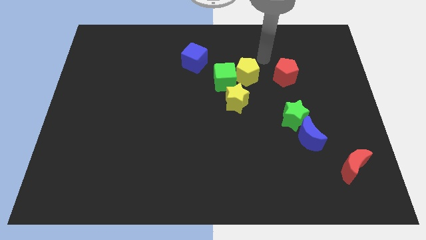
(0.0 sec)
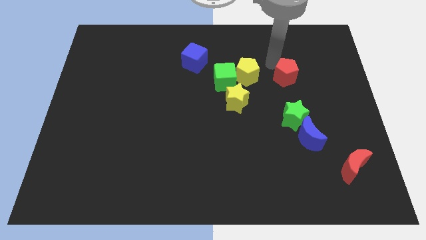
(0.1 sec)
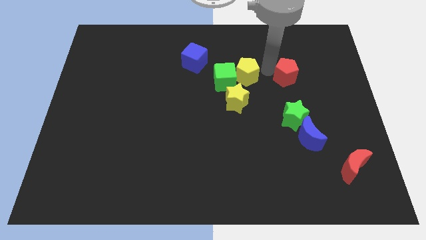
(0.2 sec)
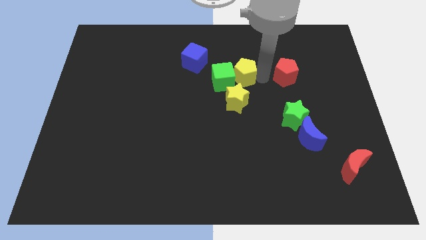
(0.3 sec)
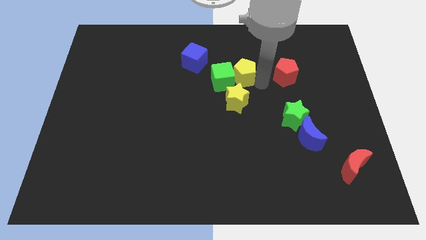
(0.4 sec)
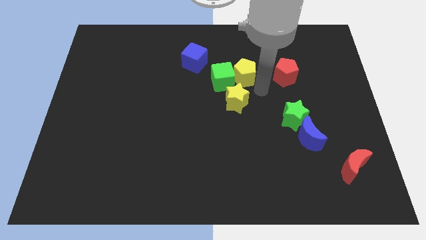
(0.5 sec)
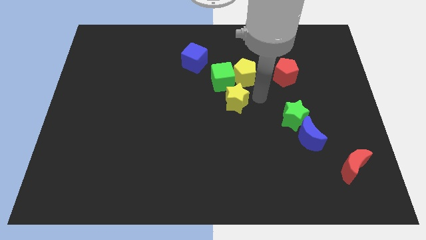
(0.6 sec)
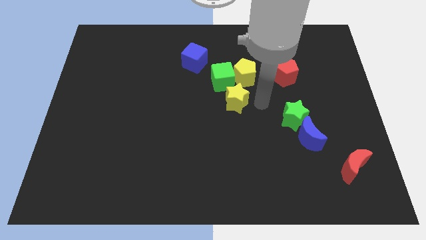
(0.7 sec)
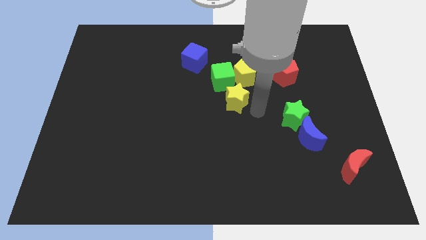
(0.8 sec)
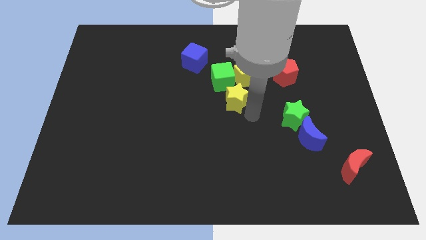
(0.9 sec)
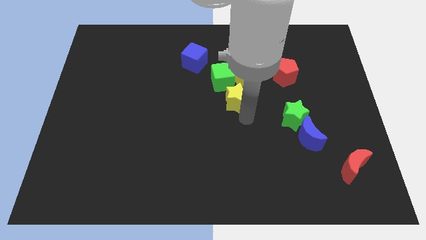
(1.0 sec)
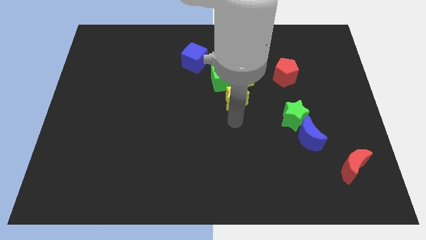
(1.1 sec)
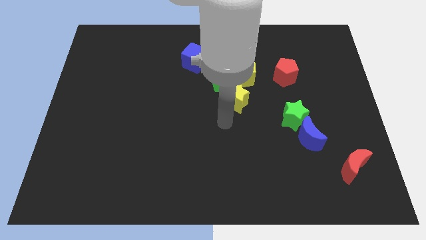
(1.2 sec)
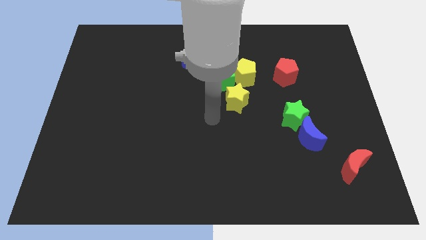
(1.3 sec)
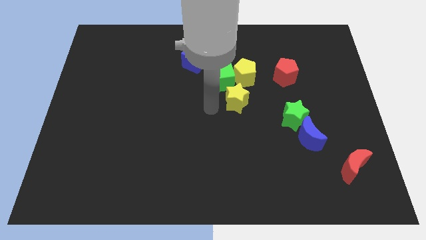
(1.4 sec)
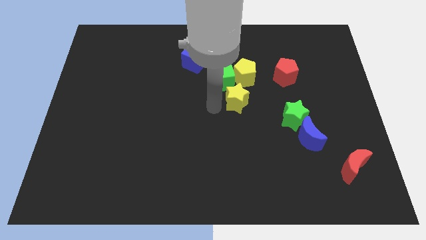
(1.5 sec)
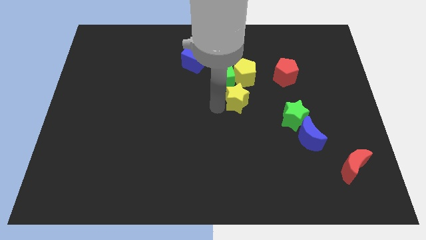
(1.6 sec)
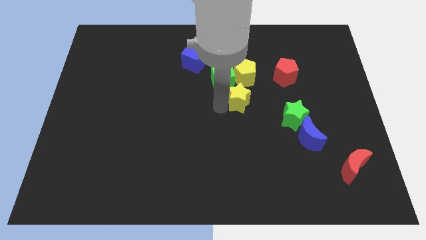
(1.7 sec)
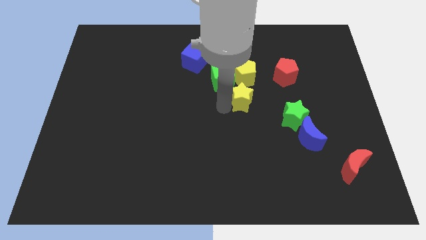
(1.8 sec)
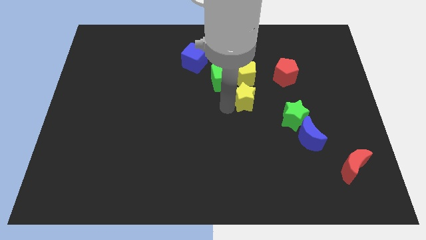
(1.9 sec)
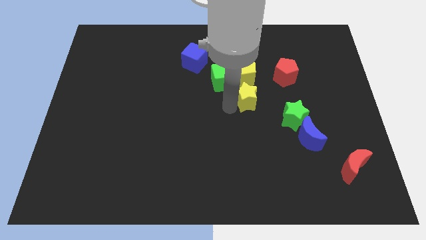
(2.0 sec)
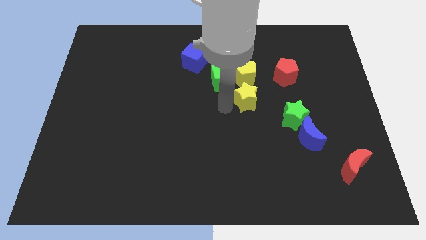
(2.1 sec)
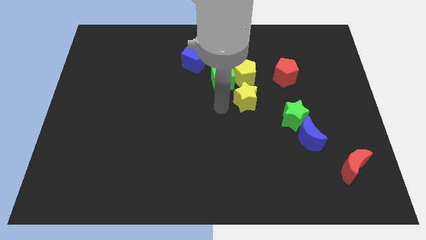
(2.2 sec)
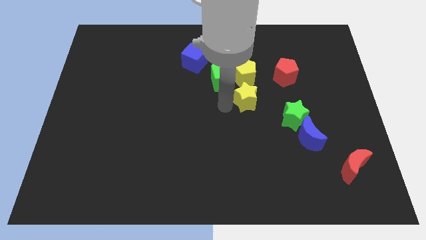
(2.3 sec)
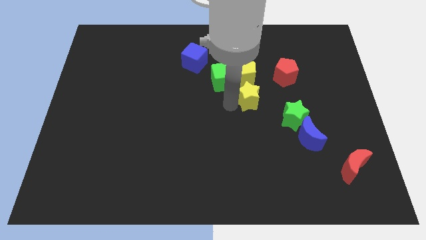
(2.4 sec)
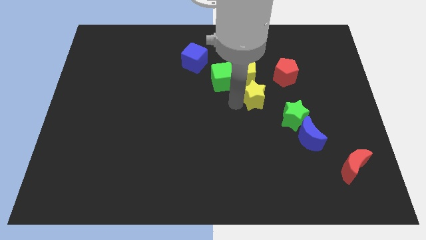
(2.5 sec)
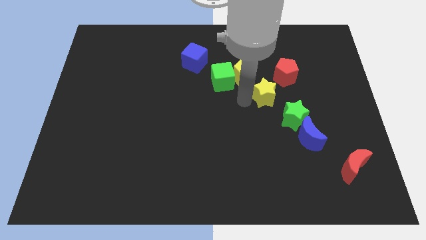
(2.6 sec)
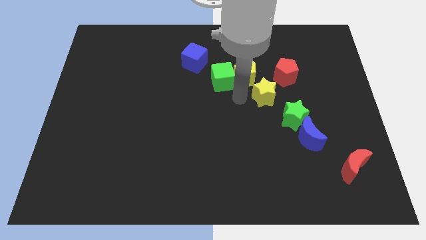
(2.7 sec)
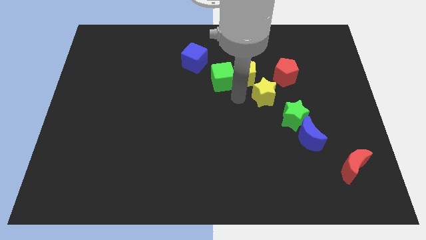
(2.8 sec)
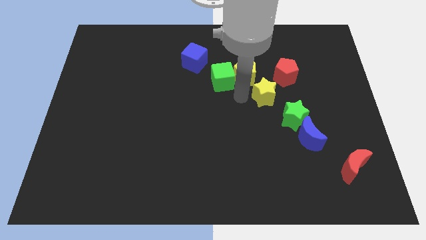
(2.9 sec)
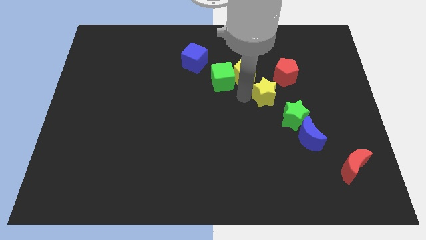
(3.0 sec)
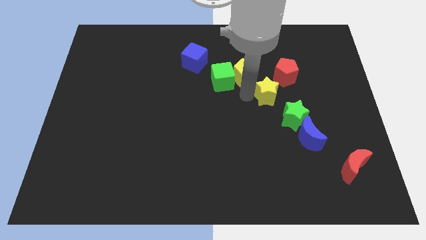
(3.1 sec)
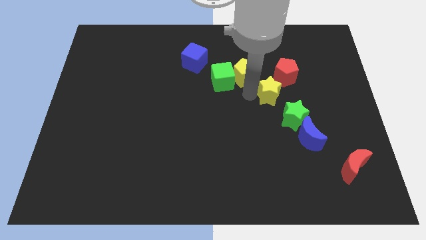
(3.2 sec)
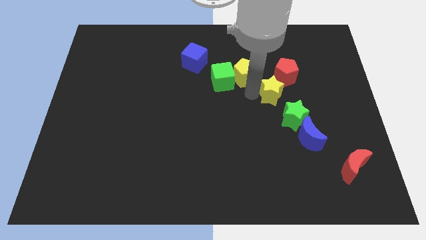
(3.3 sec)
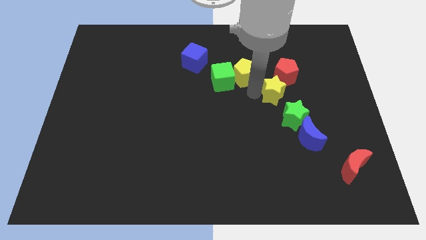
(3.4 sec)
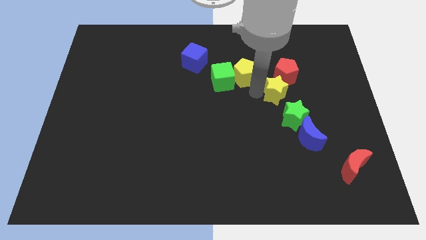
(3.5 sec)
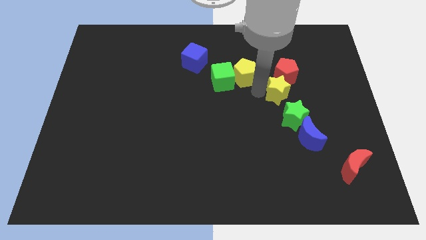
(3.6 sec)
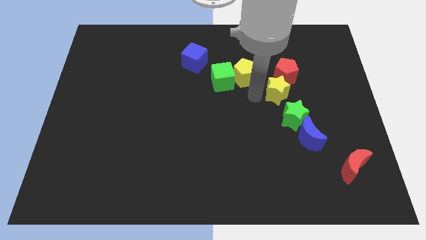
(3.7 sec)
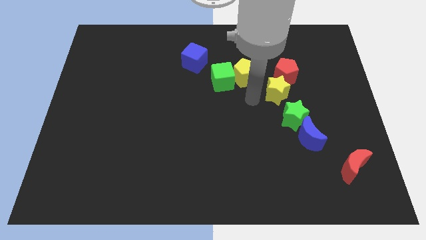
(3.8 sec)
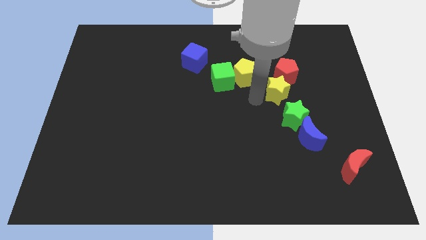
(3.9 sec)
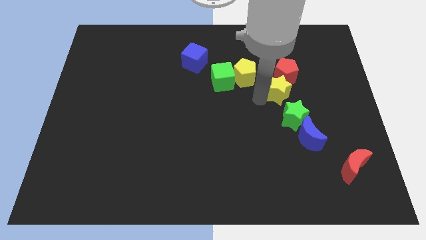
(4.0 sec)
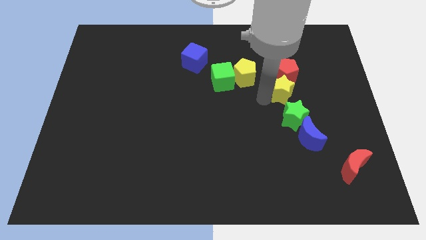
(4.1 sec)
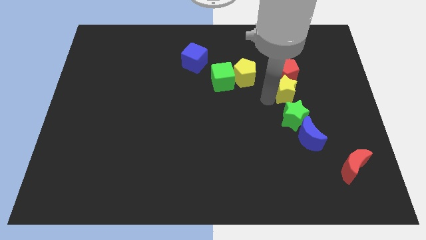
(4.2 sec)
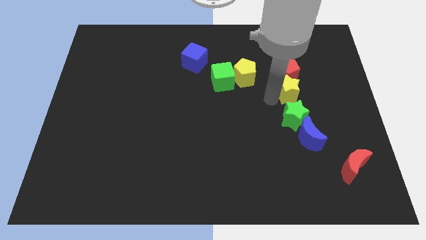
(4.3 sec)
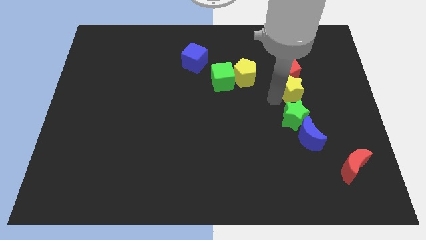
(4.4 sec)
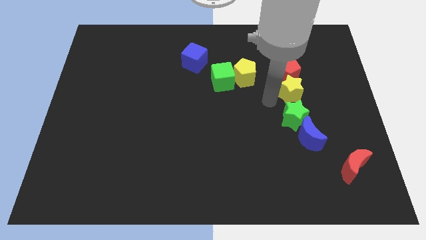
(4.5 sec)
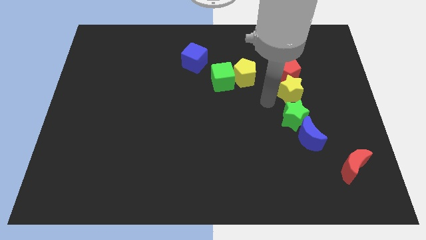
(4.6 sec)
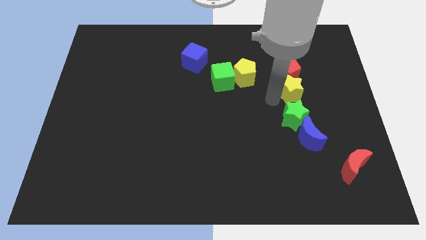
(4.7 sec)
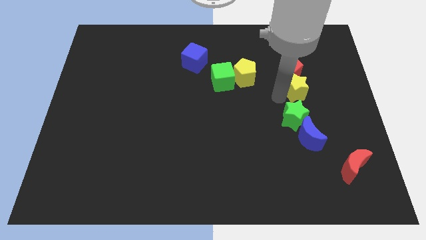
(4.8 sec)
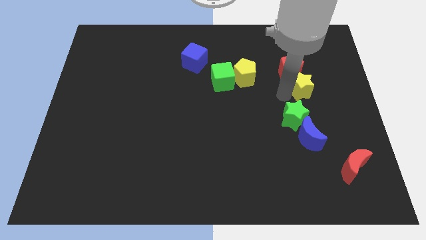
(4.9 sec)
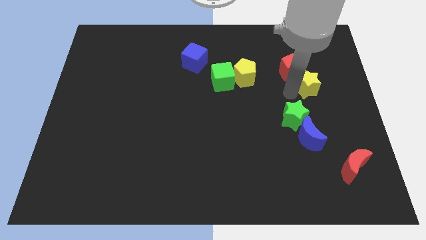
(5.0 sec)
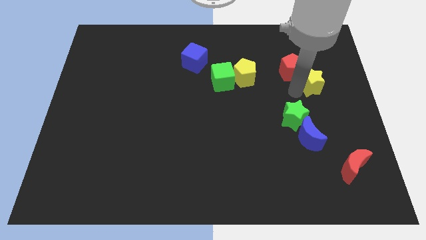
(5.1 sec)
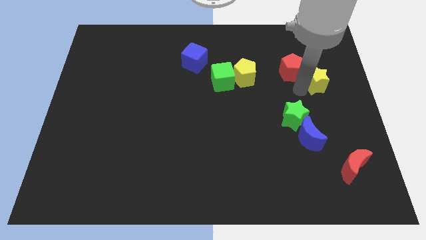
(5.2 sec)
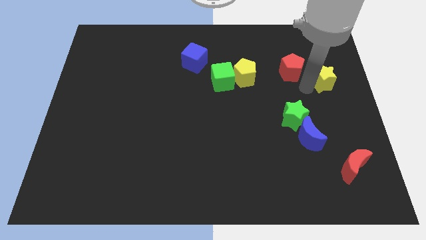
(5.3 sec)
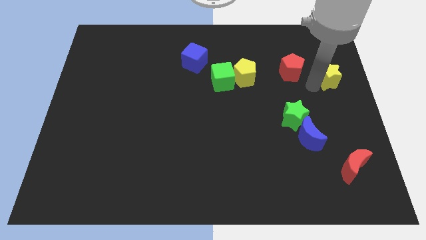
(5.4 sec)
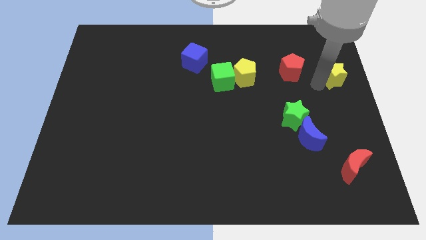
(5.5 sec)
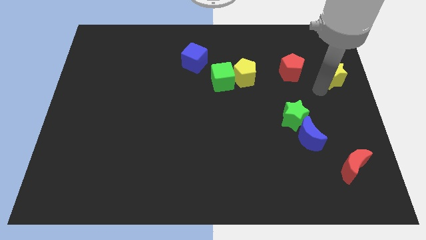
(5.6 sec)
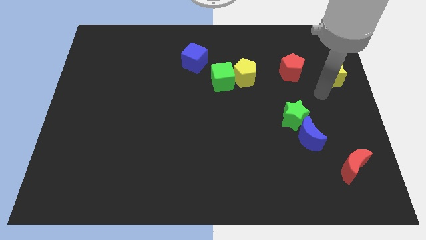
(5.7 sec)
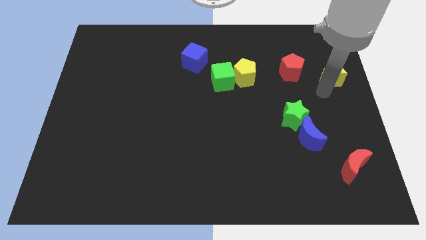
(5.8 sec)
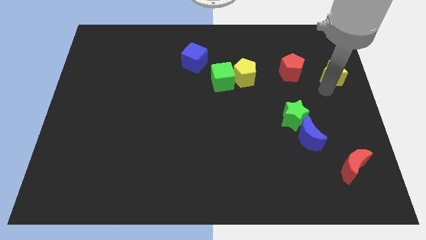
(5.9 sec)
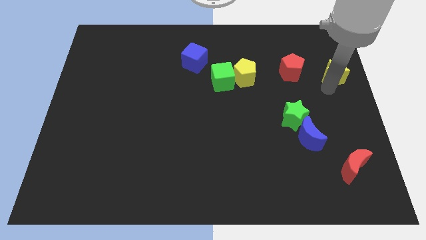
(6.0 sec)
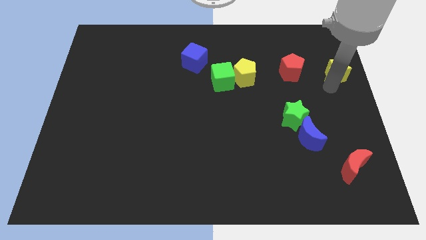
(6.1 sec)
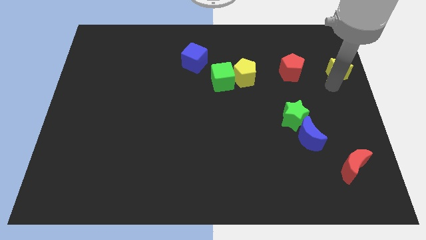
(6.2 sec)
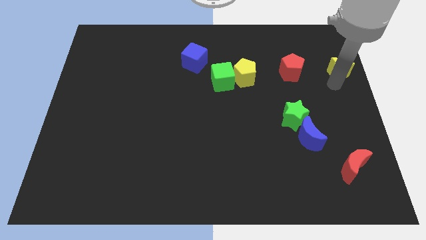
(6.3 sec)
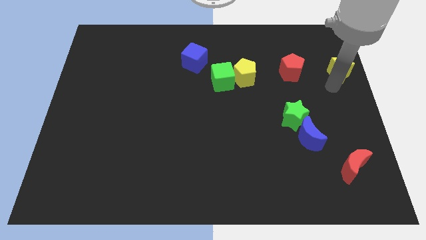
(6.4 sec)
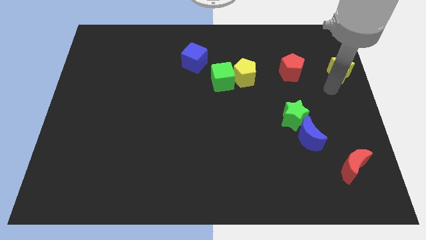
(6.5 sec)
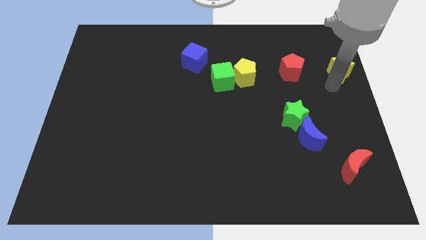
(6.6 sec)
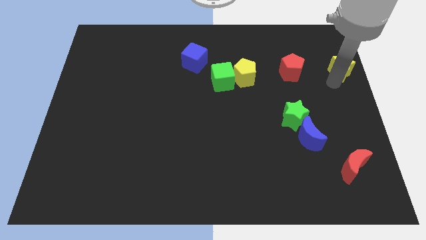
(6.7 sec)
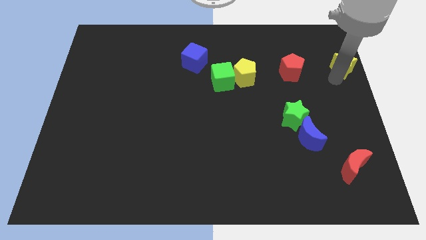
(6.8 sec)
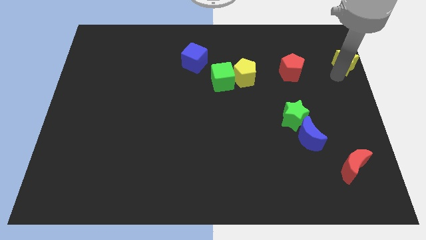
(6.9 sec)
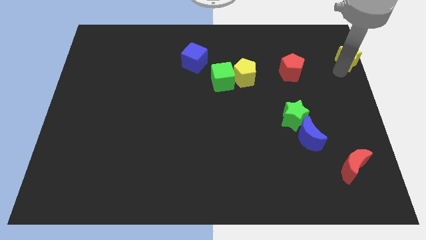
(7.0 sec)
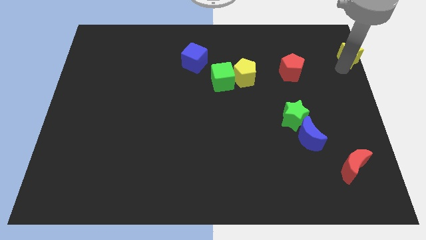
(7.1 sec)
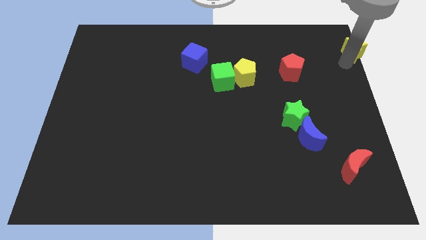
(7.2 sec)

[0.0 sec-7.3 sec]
put the yellow star to the upper right corner
